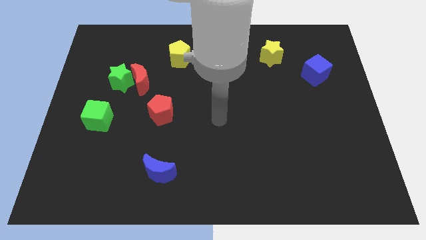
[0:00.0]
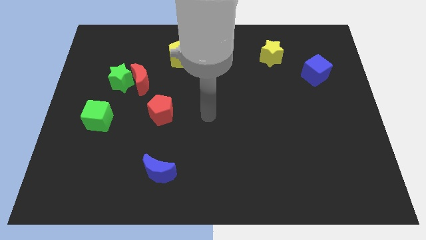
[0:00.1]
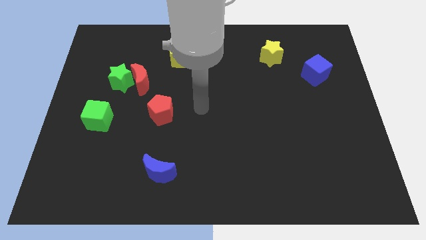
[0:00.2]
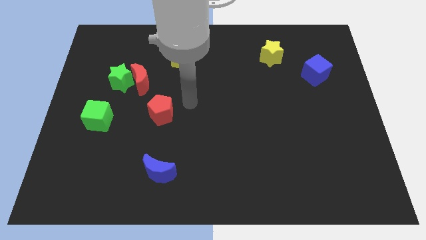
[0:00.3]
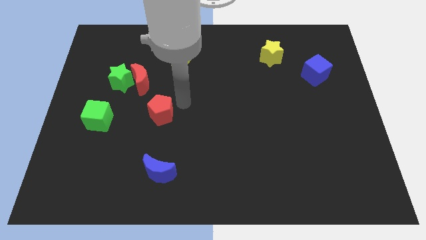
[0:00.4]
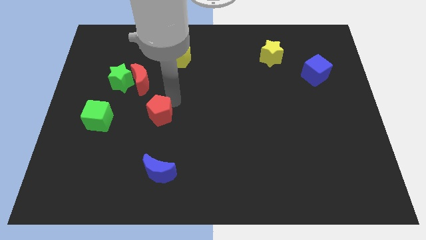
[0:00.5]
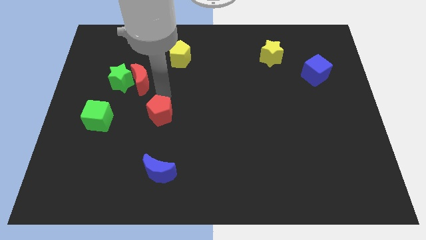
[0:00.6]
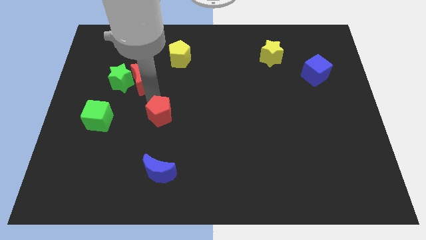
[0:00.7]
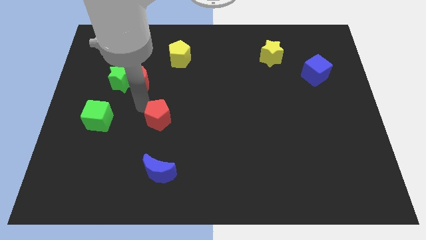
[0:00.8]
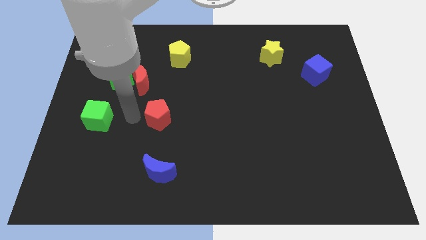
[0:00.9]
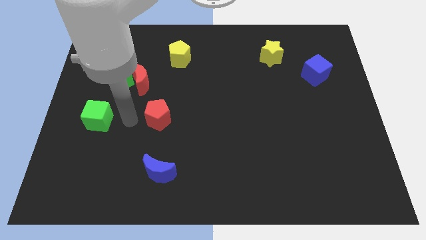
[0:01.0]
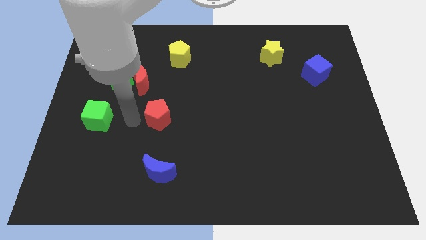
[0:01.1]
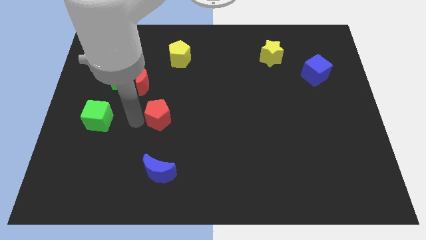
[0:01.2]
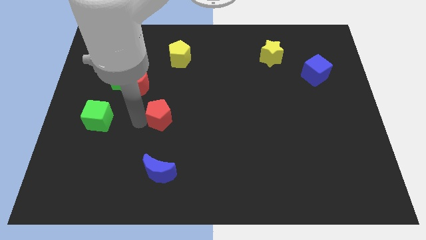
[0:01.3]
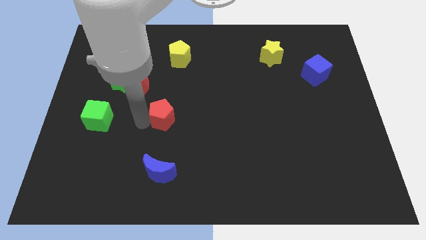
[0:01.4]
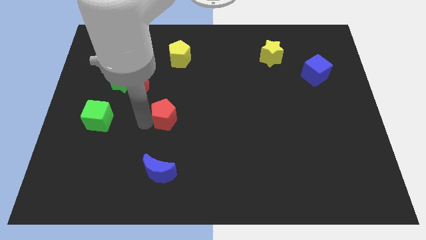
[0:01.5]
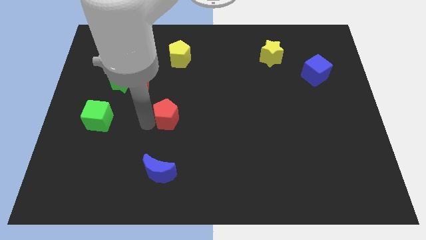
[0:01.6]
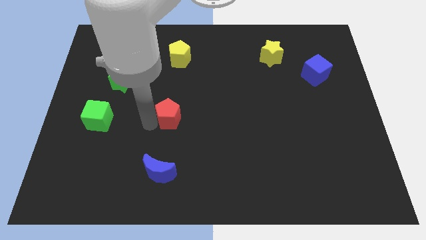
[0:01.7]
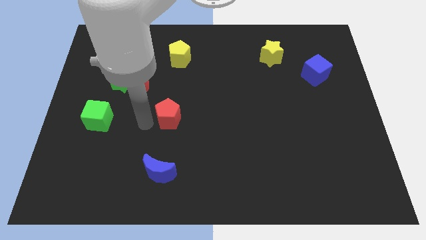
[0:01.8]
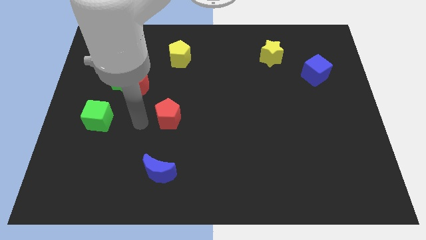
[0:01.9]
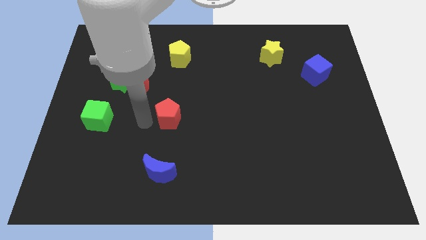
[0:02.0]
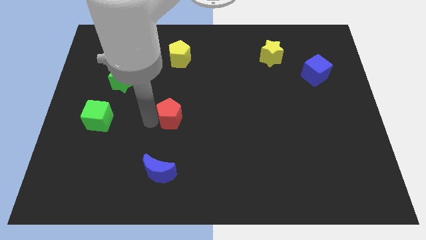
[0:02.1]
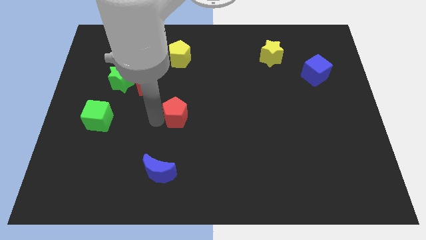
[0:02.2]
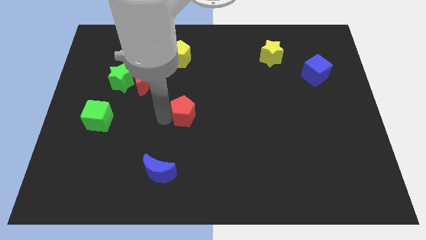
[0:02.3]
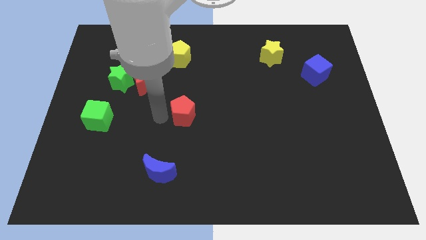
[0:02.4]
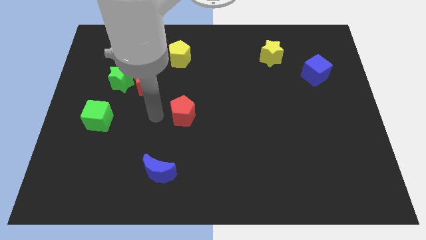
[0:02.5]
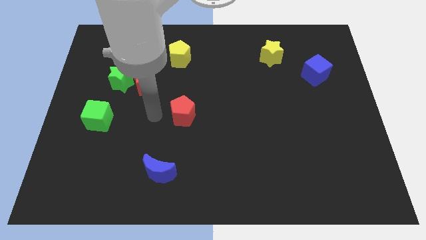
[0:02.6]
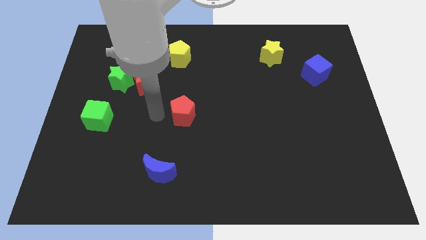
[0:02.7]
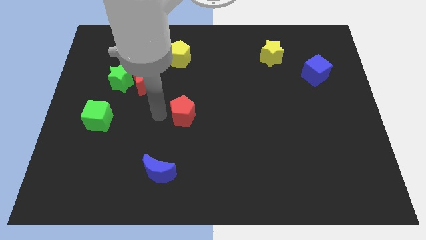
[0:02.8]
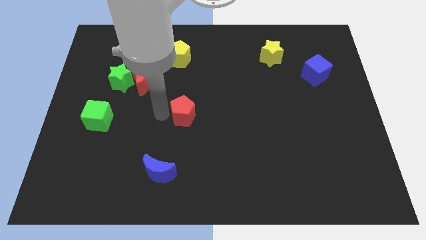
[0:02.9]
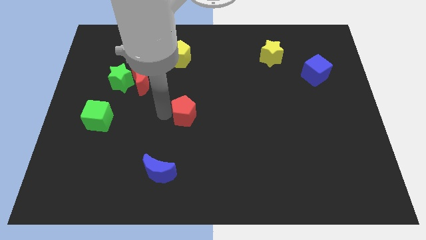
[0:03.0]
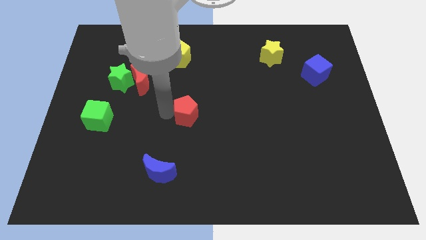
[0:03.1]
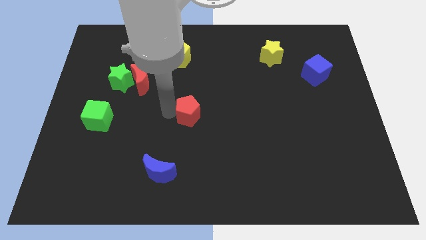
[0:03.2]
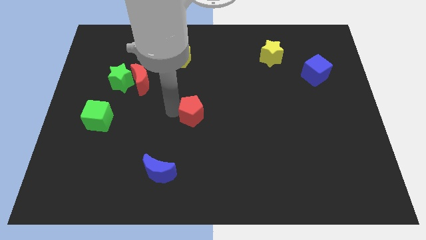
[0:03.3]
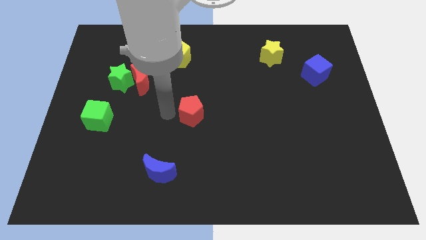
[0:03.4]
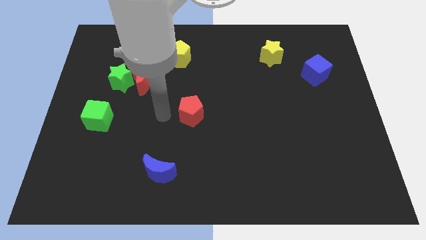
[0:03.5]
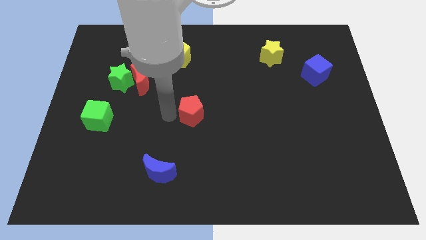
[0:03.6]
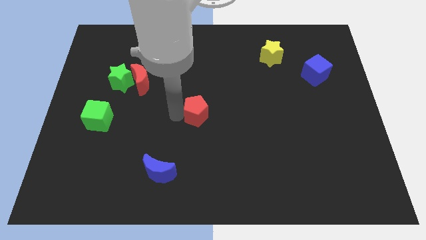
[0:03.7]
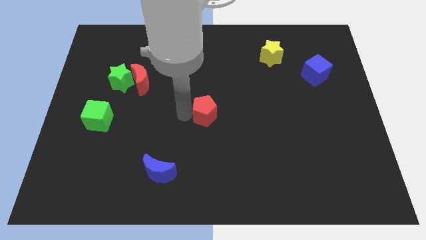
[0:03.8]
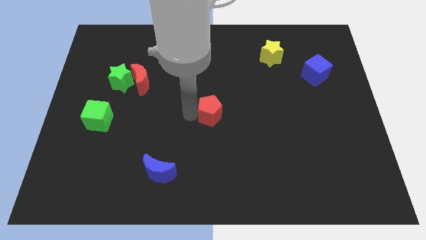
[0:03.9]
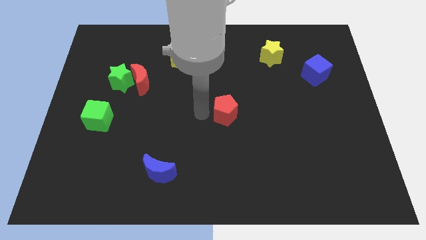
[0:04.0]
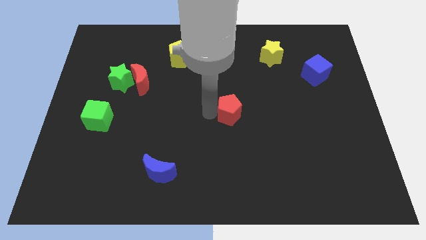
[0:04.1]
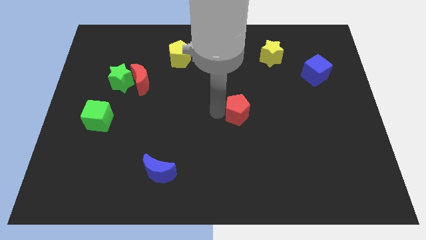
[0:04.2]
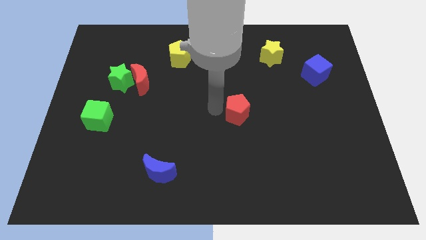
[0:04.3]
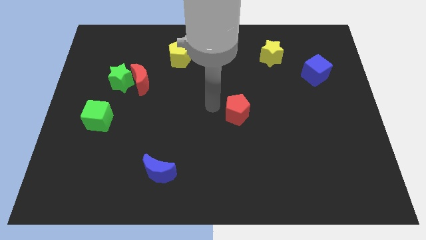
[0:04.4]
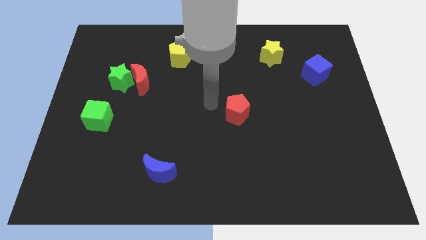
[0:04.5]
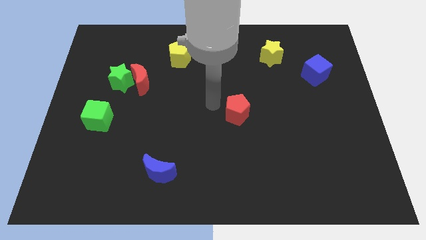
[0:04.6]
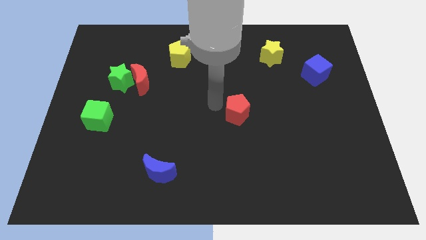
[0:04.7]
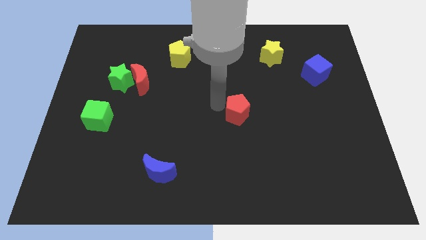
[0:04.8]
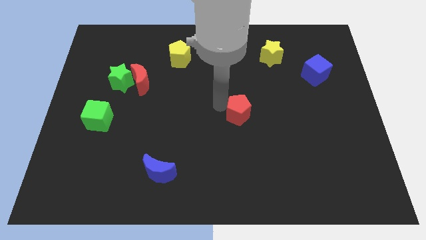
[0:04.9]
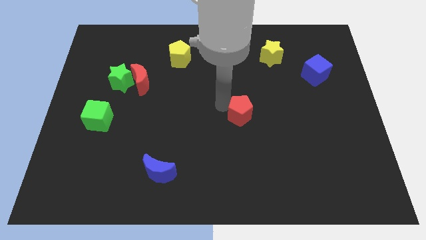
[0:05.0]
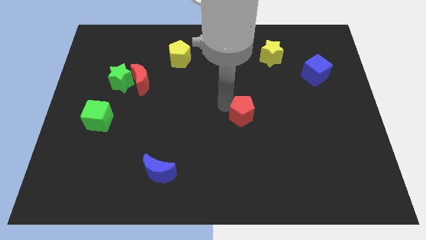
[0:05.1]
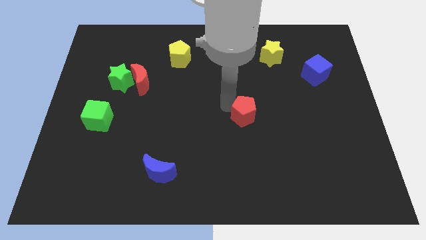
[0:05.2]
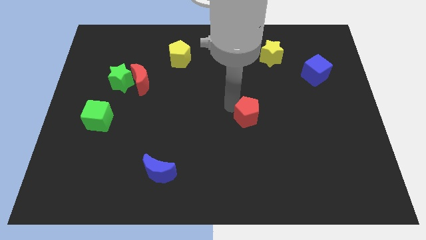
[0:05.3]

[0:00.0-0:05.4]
slide the red pentagon to the right

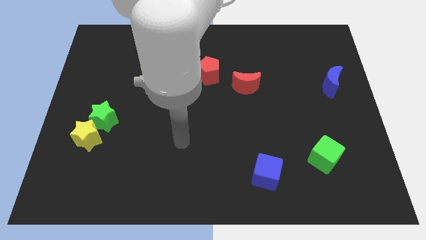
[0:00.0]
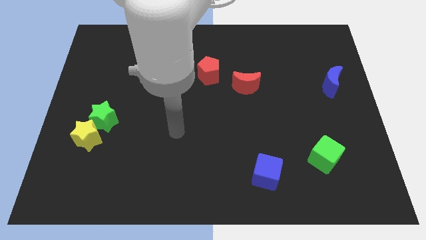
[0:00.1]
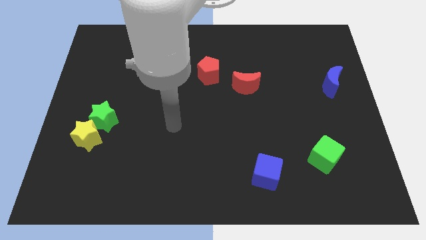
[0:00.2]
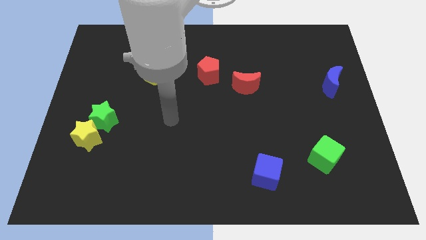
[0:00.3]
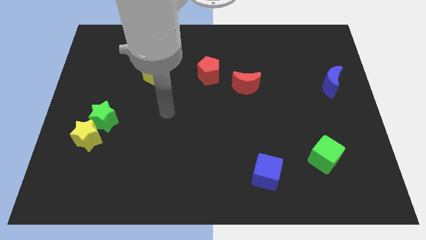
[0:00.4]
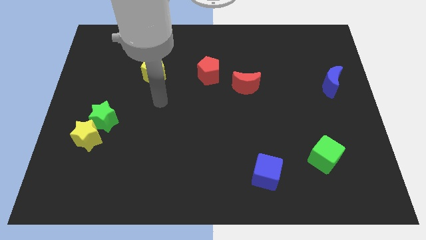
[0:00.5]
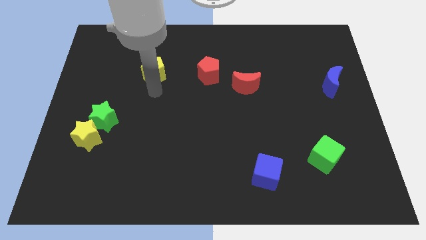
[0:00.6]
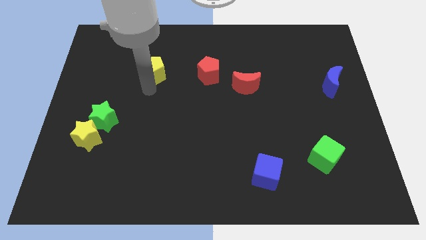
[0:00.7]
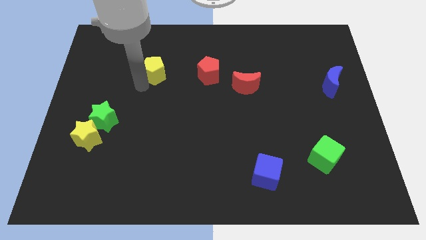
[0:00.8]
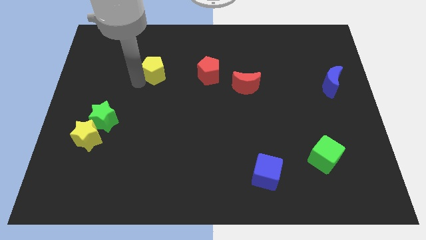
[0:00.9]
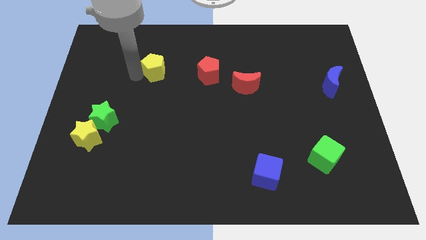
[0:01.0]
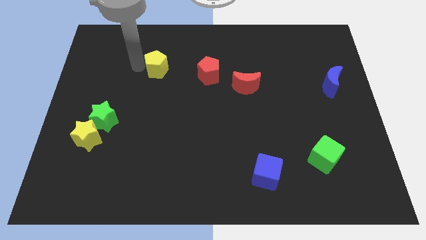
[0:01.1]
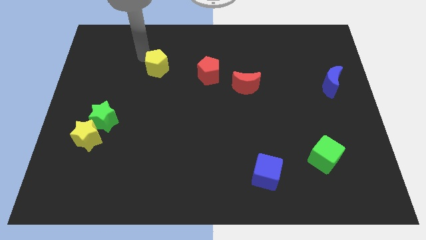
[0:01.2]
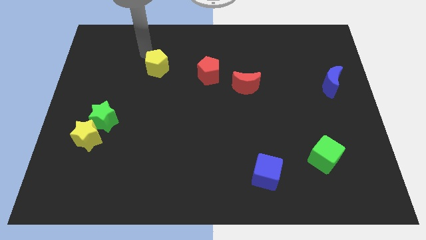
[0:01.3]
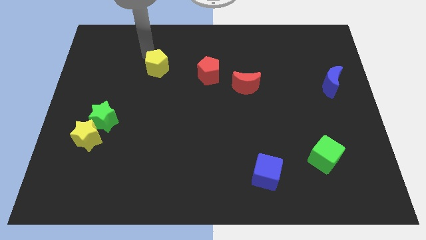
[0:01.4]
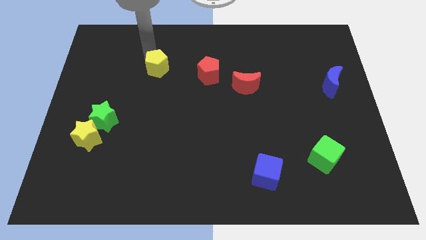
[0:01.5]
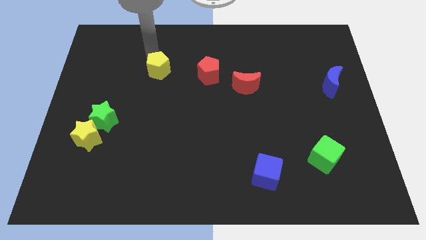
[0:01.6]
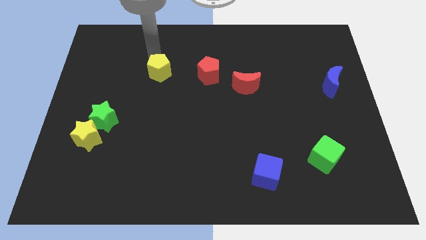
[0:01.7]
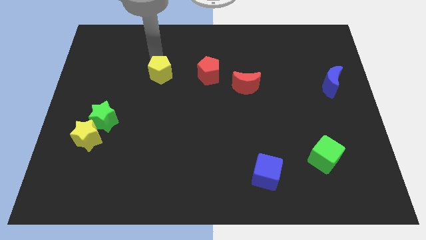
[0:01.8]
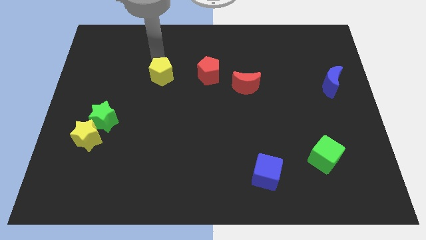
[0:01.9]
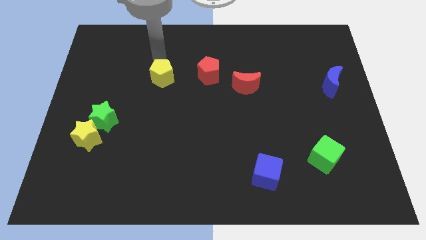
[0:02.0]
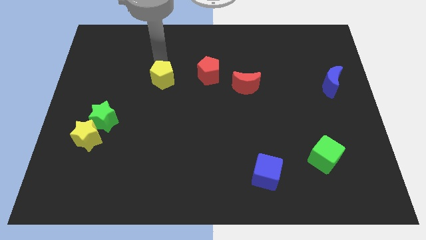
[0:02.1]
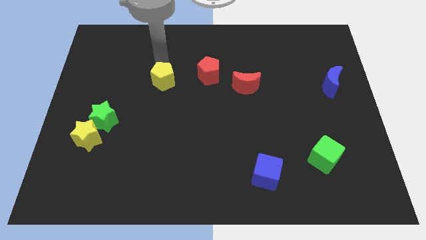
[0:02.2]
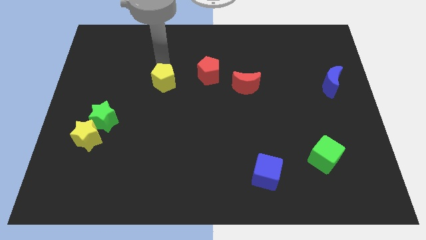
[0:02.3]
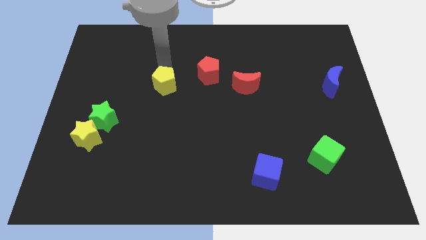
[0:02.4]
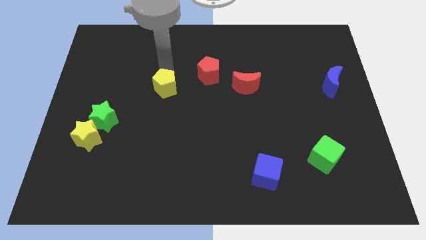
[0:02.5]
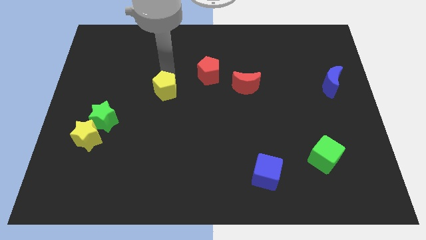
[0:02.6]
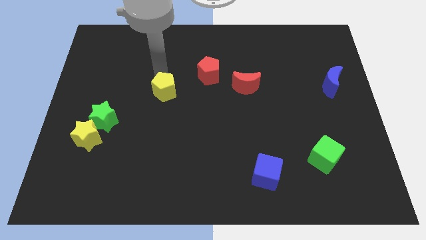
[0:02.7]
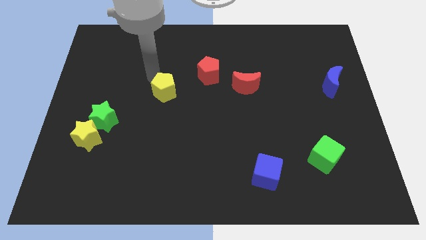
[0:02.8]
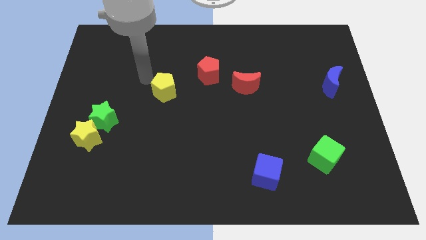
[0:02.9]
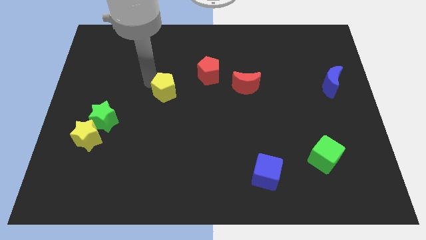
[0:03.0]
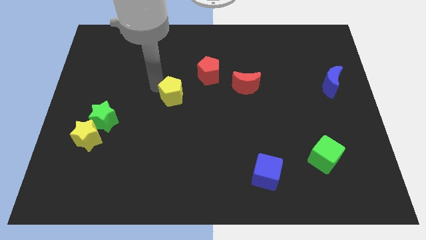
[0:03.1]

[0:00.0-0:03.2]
push the yellow pentagon a little bit downwards and to the right diagonally
